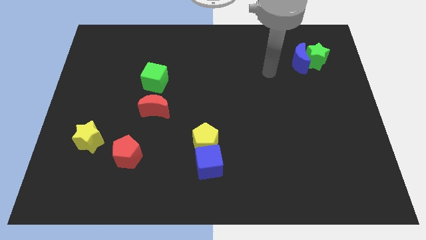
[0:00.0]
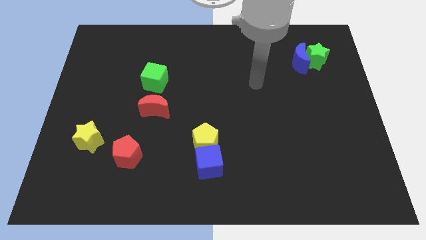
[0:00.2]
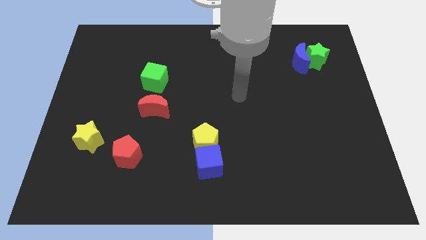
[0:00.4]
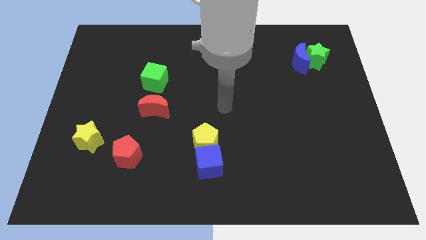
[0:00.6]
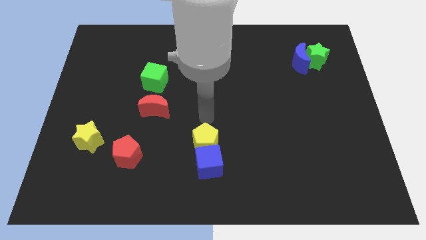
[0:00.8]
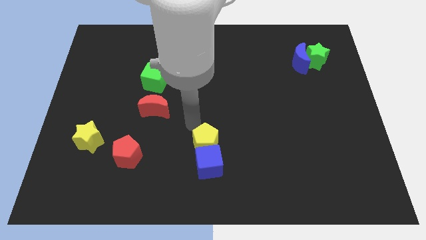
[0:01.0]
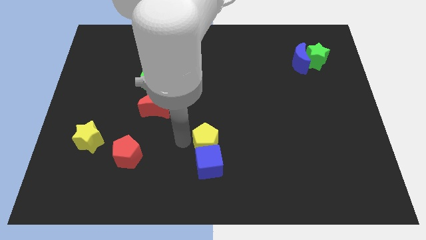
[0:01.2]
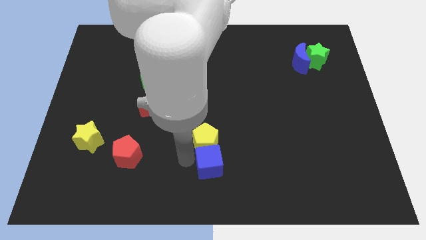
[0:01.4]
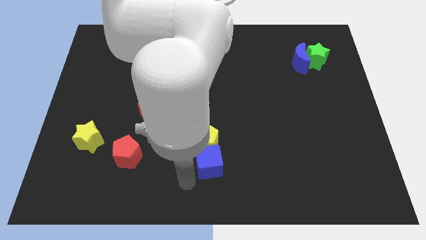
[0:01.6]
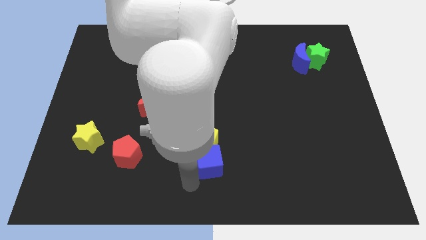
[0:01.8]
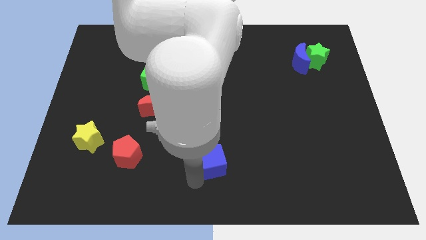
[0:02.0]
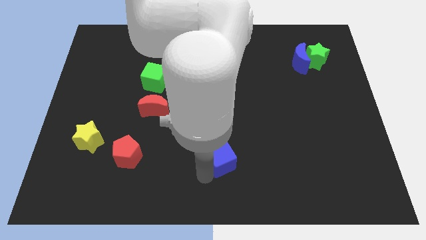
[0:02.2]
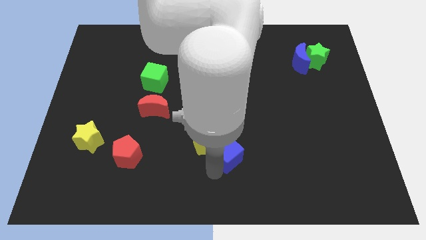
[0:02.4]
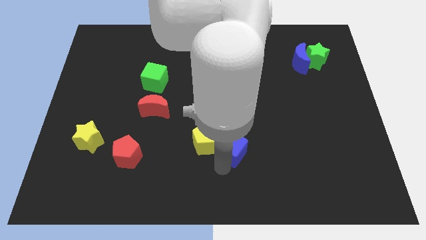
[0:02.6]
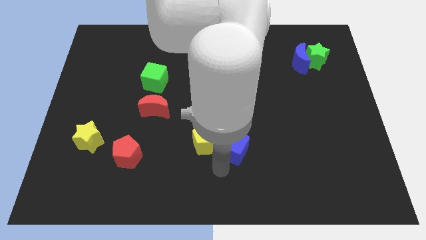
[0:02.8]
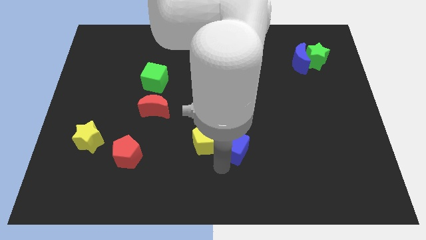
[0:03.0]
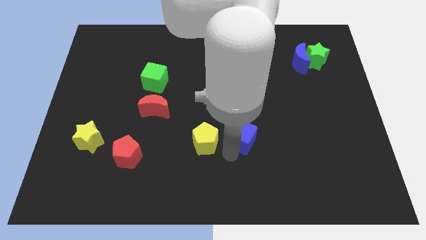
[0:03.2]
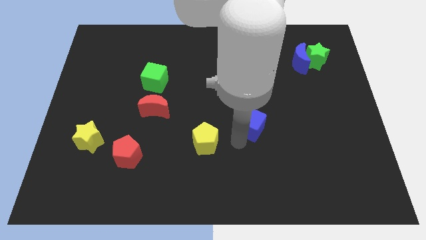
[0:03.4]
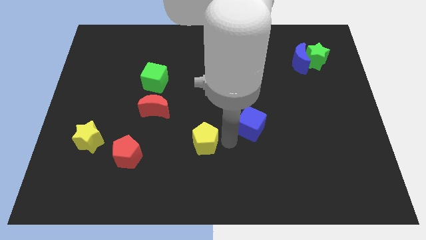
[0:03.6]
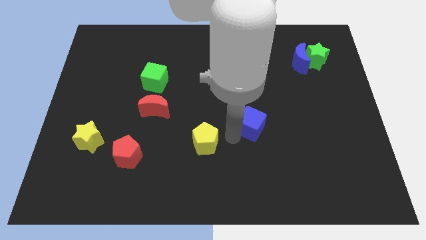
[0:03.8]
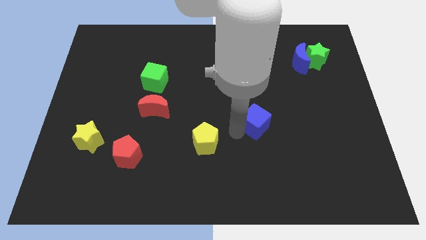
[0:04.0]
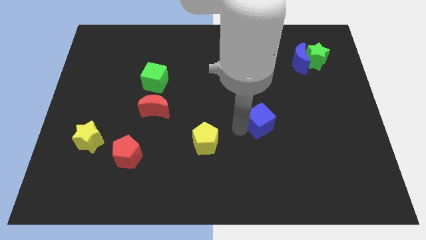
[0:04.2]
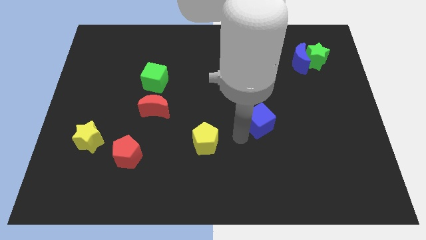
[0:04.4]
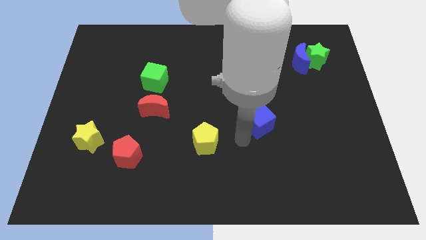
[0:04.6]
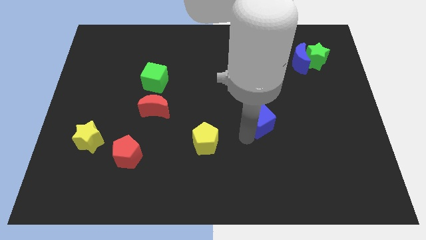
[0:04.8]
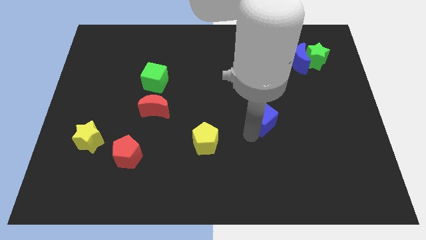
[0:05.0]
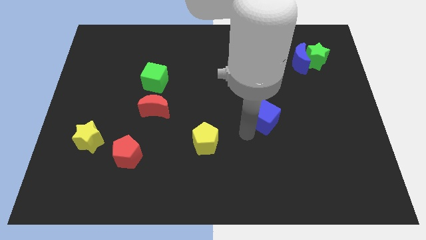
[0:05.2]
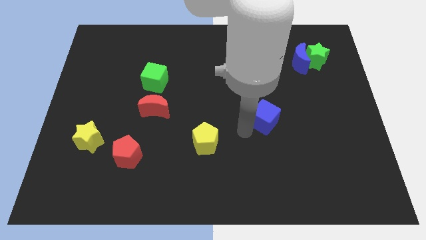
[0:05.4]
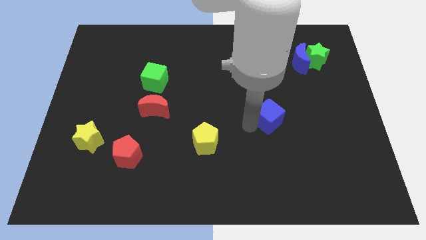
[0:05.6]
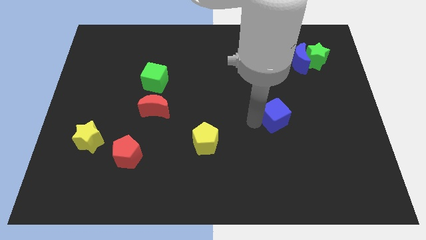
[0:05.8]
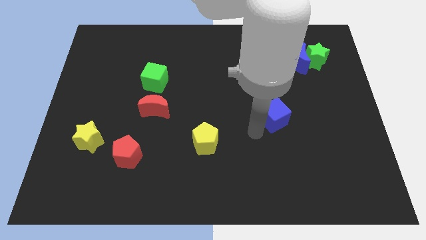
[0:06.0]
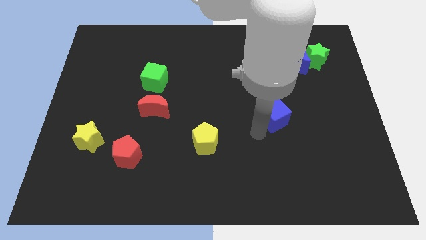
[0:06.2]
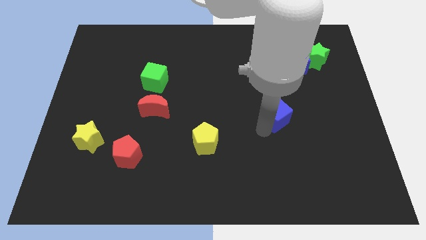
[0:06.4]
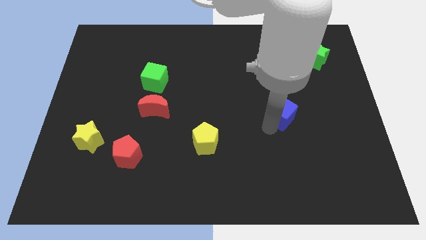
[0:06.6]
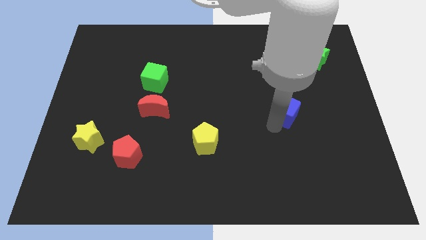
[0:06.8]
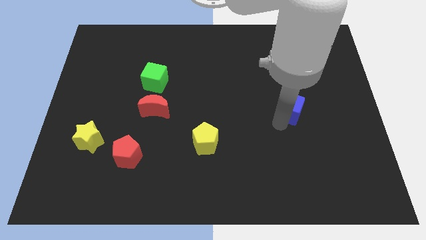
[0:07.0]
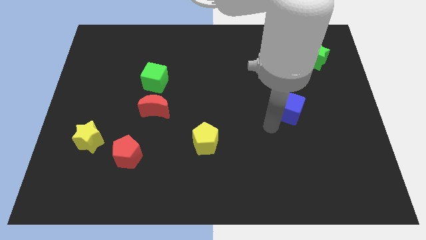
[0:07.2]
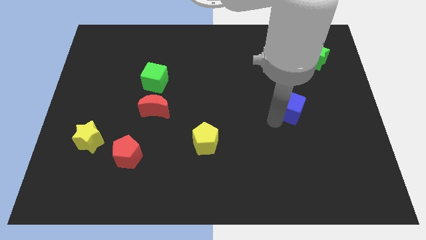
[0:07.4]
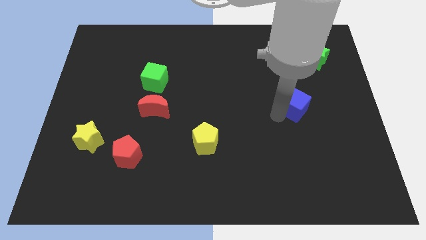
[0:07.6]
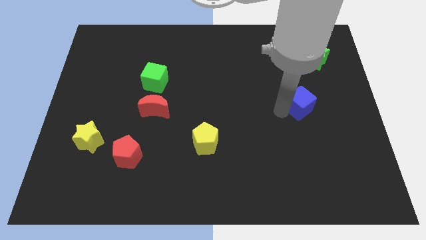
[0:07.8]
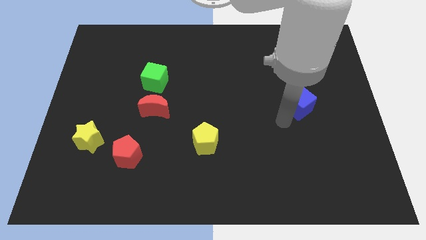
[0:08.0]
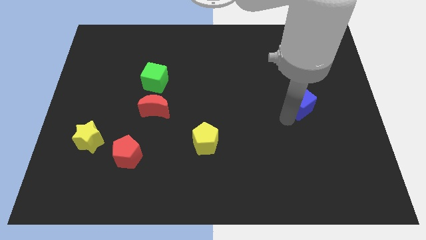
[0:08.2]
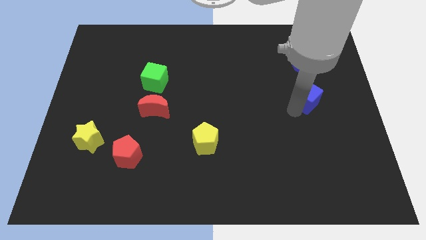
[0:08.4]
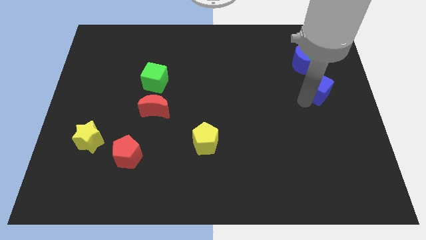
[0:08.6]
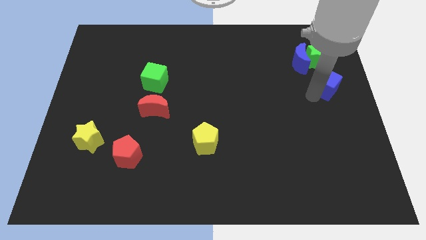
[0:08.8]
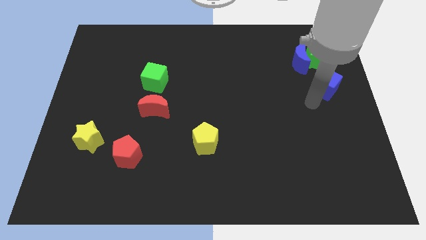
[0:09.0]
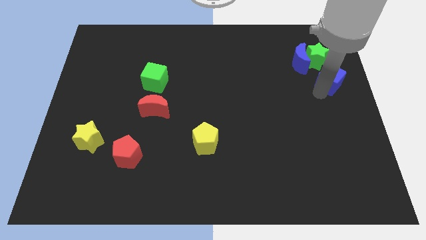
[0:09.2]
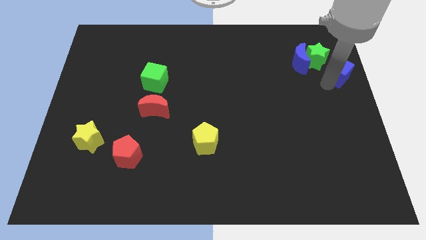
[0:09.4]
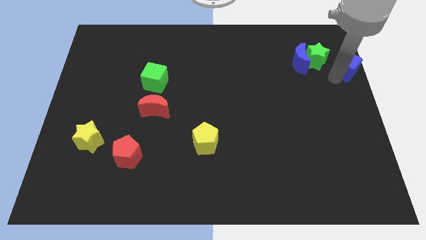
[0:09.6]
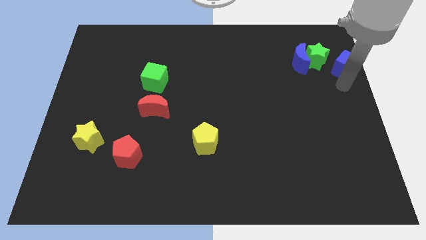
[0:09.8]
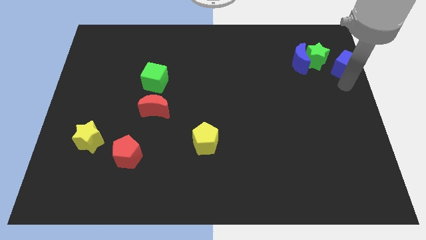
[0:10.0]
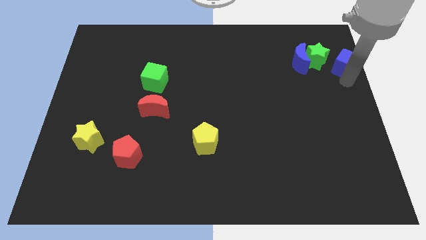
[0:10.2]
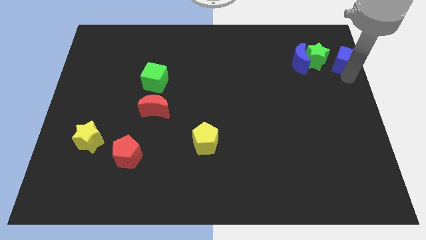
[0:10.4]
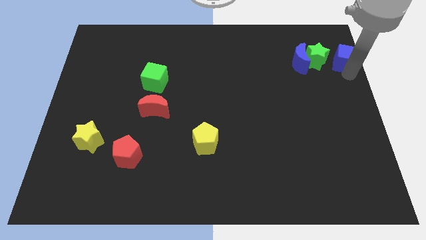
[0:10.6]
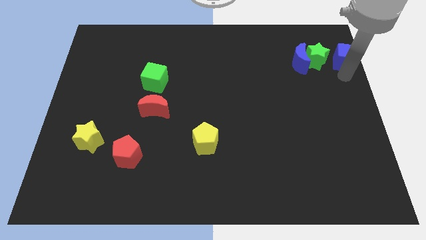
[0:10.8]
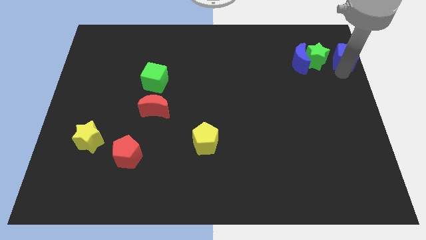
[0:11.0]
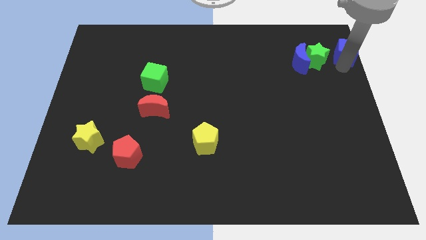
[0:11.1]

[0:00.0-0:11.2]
slide the blue cube to the top right

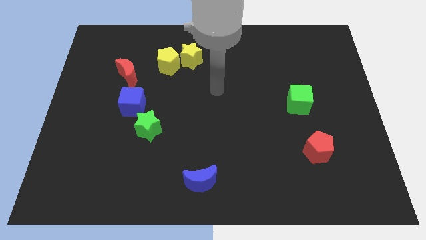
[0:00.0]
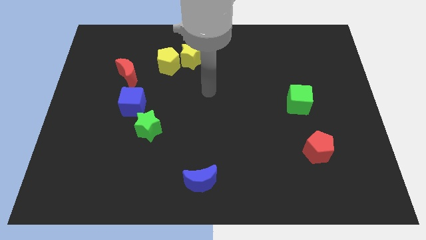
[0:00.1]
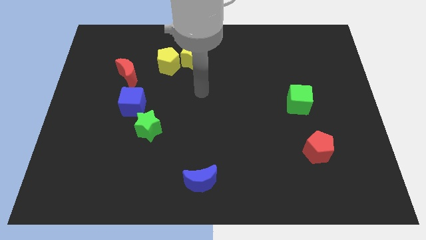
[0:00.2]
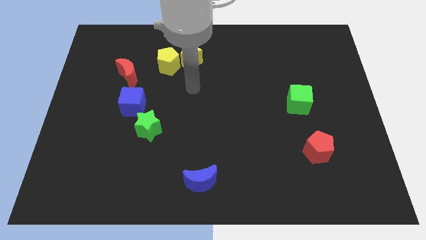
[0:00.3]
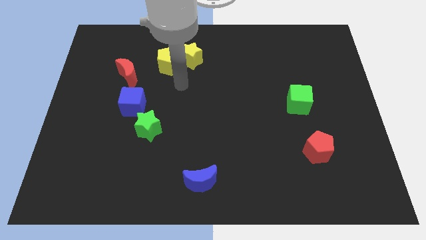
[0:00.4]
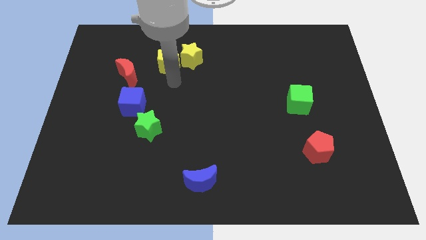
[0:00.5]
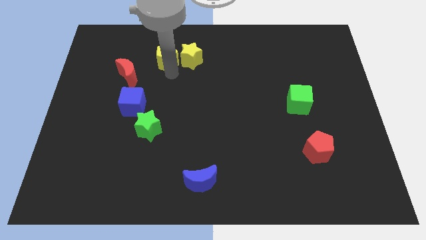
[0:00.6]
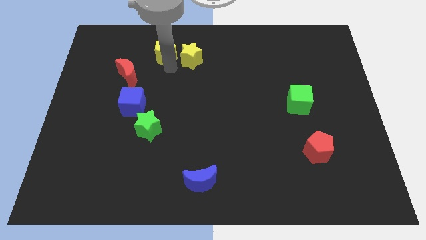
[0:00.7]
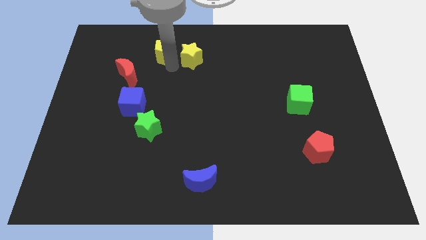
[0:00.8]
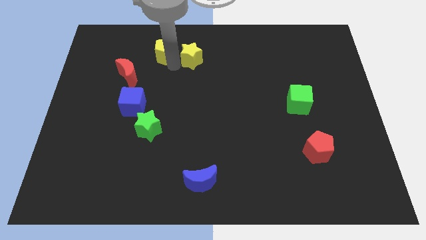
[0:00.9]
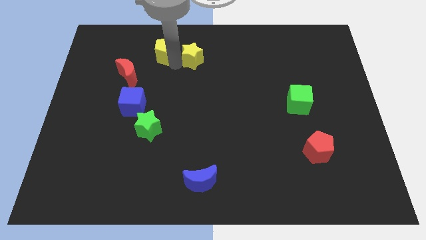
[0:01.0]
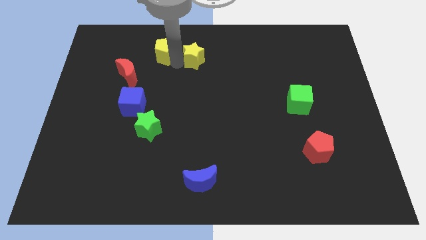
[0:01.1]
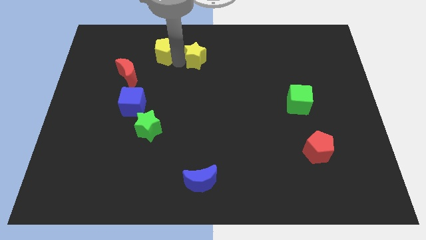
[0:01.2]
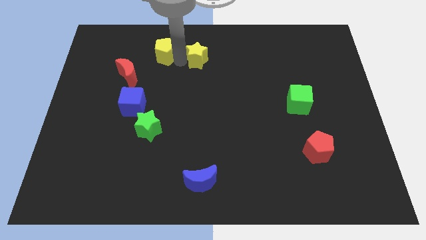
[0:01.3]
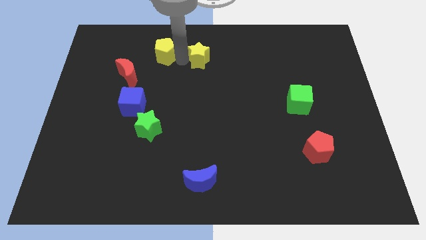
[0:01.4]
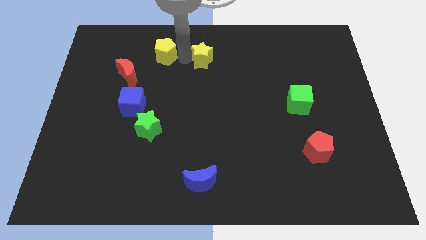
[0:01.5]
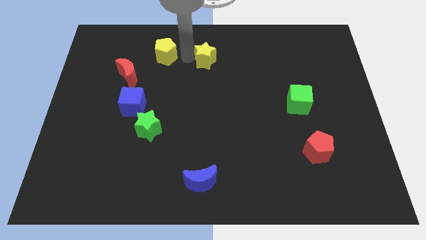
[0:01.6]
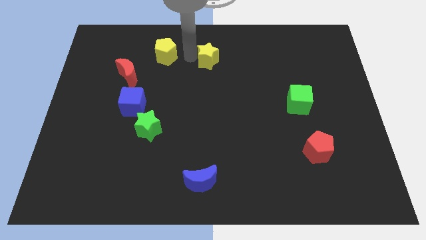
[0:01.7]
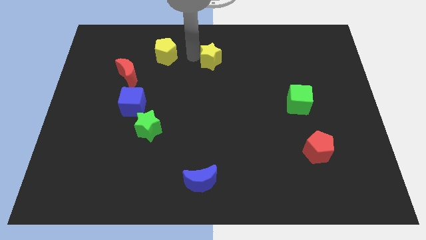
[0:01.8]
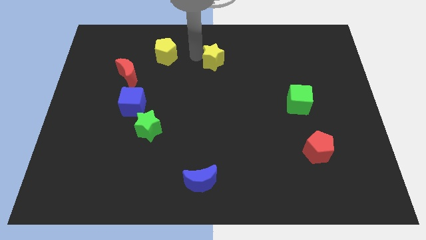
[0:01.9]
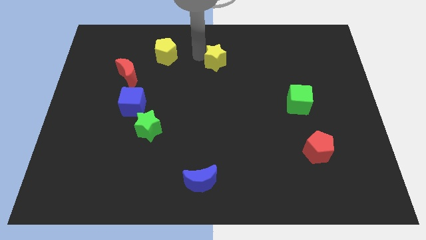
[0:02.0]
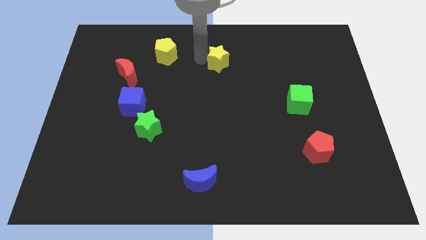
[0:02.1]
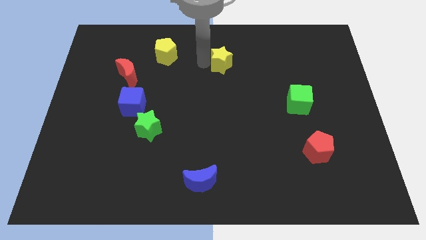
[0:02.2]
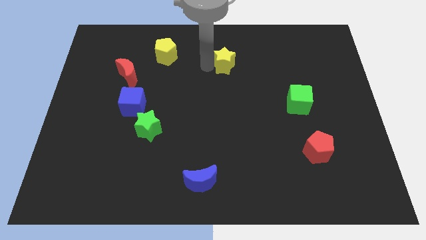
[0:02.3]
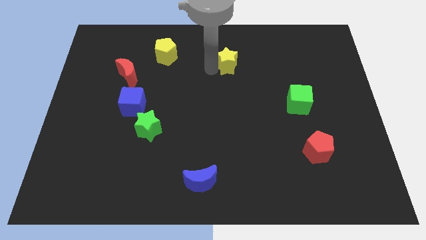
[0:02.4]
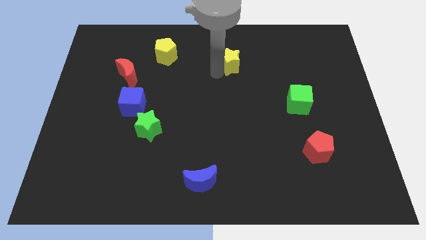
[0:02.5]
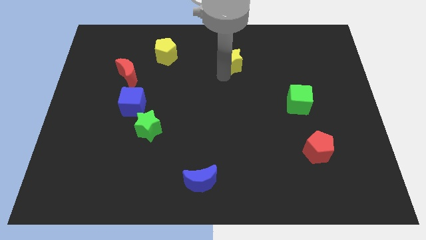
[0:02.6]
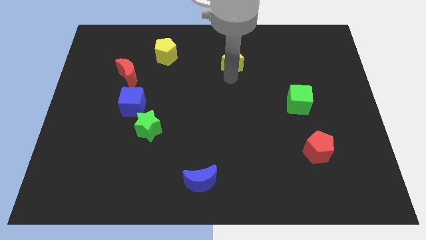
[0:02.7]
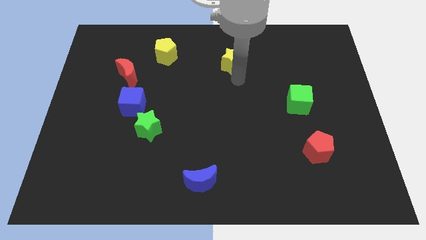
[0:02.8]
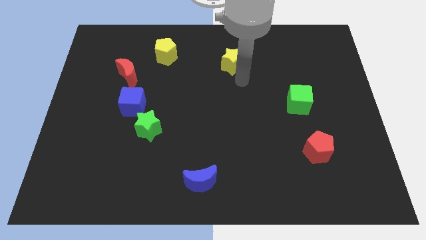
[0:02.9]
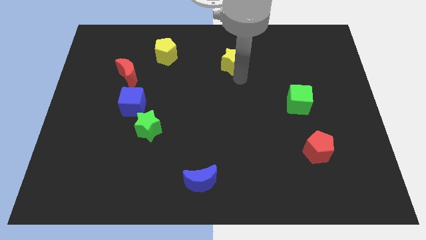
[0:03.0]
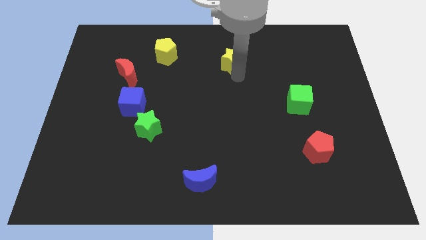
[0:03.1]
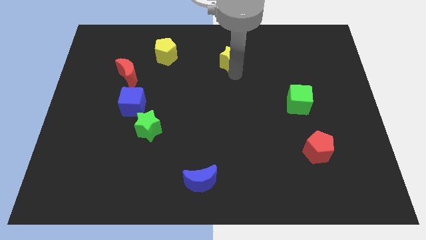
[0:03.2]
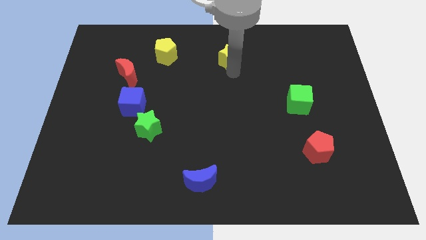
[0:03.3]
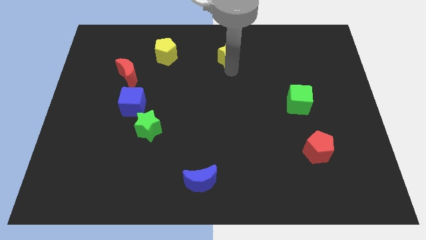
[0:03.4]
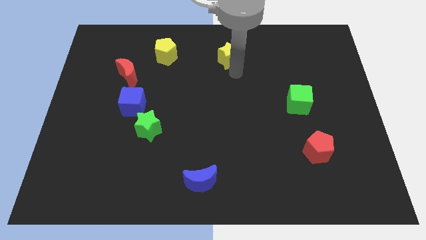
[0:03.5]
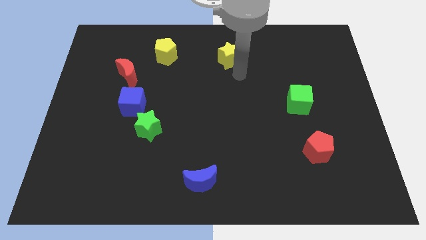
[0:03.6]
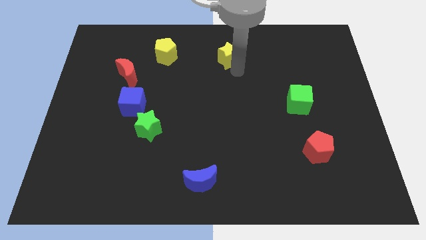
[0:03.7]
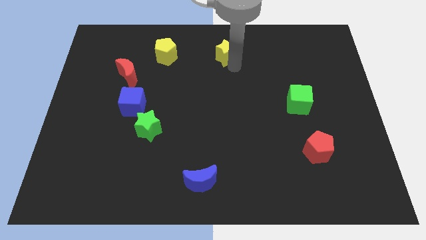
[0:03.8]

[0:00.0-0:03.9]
slide the yellow star to the top side
